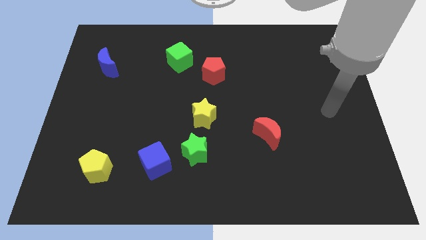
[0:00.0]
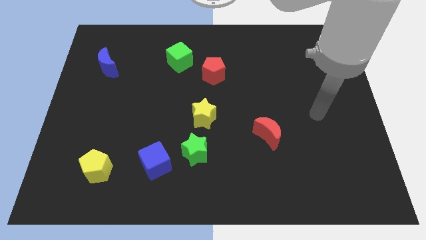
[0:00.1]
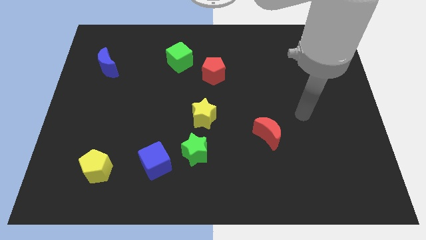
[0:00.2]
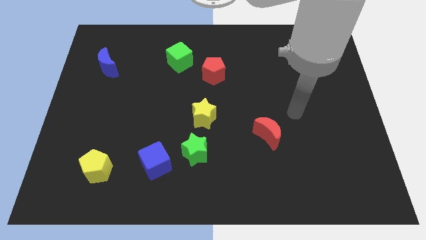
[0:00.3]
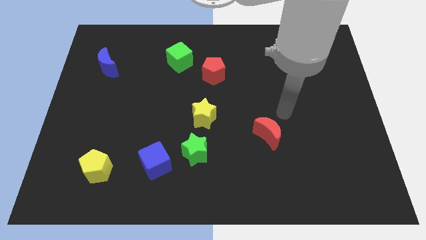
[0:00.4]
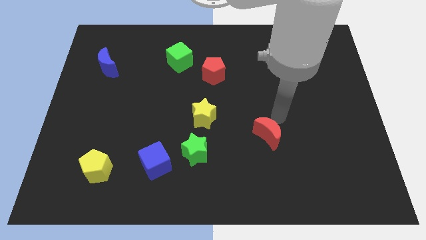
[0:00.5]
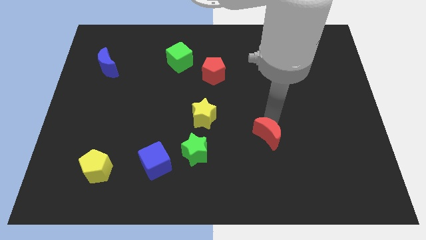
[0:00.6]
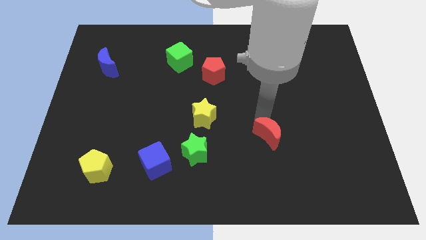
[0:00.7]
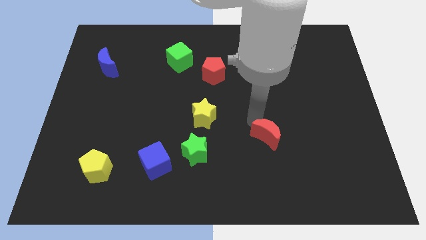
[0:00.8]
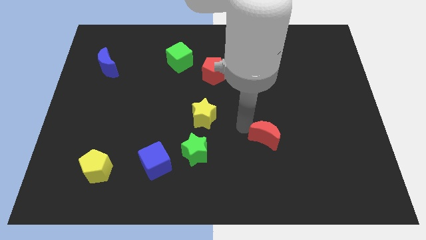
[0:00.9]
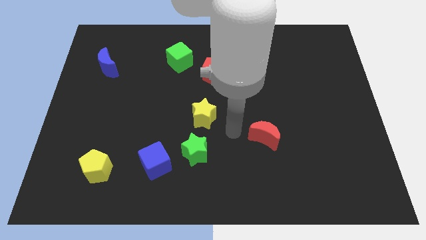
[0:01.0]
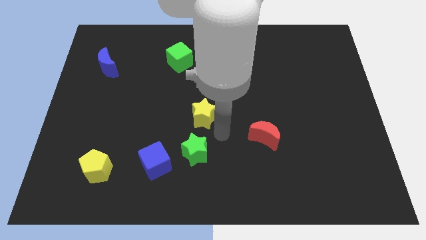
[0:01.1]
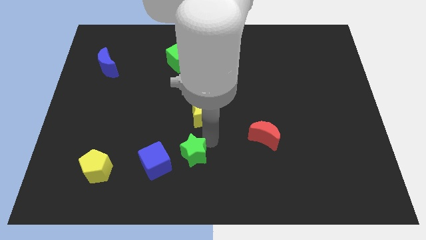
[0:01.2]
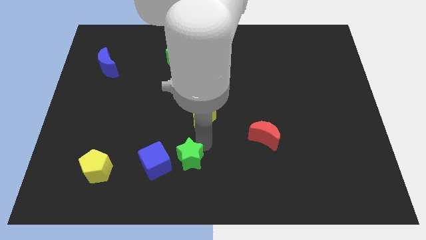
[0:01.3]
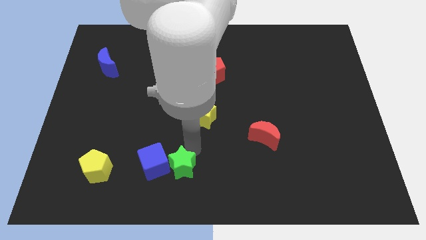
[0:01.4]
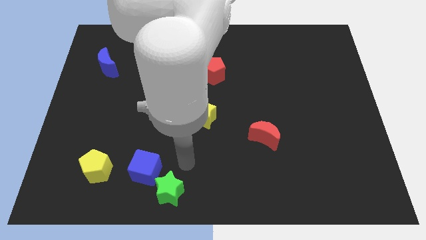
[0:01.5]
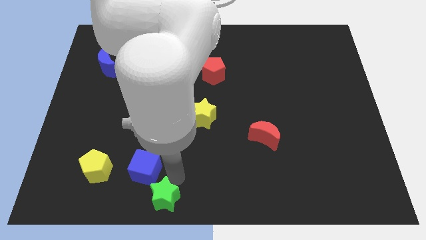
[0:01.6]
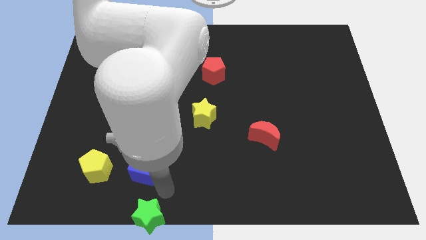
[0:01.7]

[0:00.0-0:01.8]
separate the blue cube from the green star

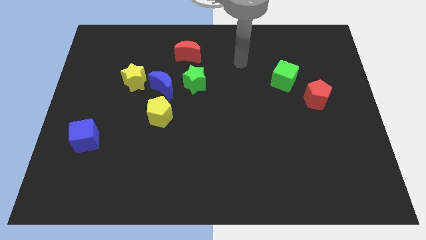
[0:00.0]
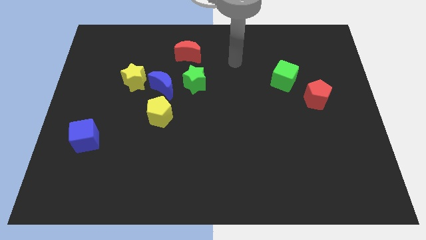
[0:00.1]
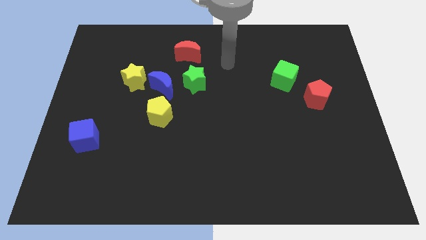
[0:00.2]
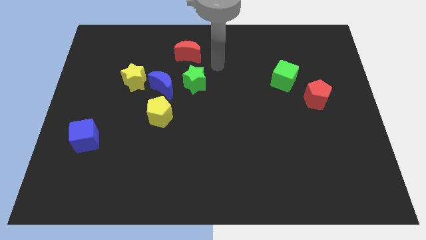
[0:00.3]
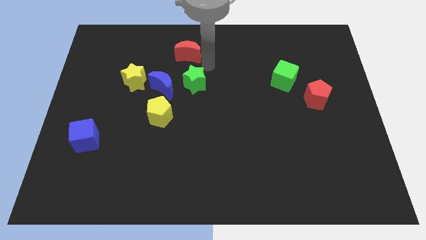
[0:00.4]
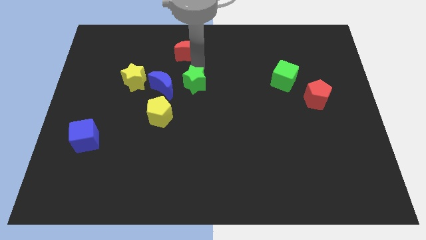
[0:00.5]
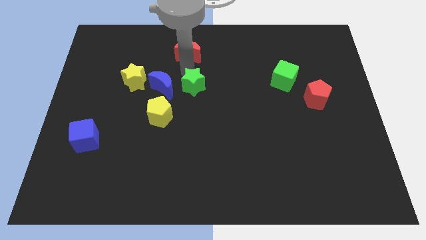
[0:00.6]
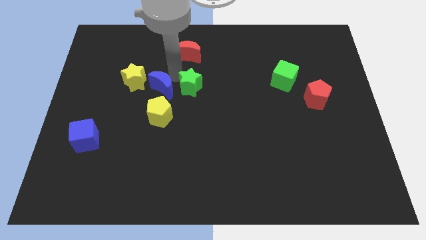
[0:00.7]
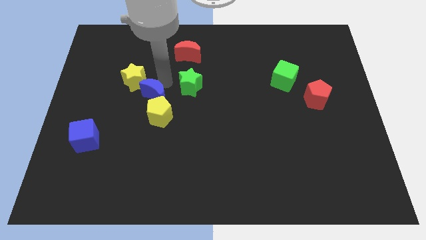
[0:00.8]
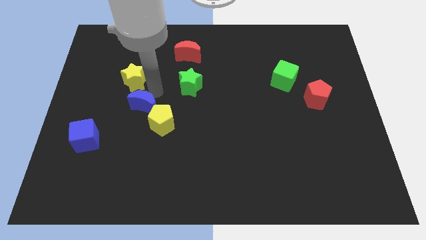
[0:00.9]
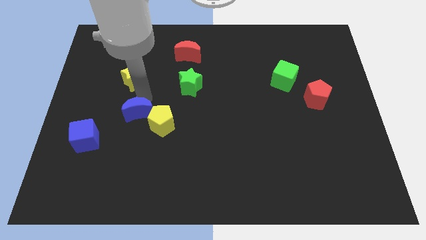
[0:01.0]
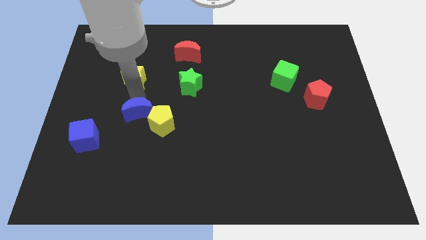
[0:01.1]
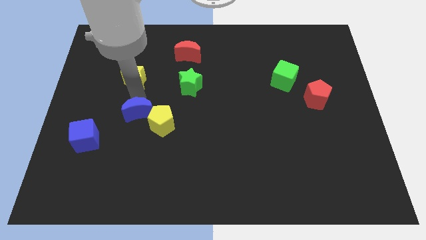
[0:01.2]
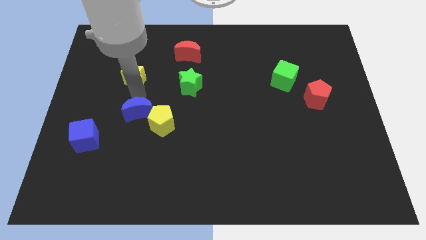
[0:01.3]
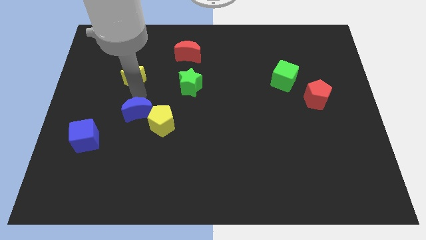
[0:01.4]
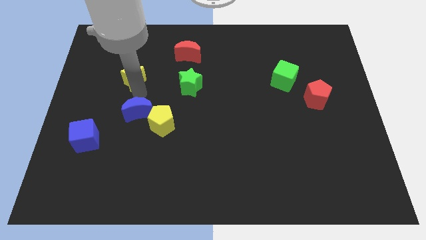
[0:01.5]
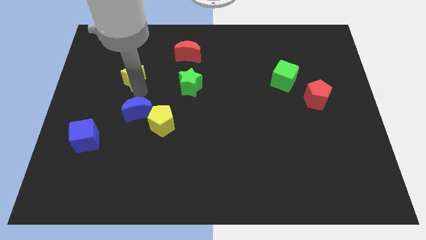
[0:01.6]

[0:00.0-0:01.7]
move the yellow star away from the blue moon

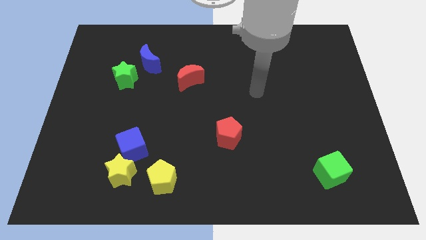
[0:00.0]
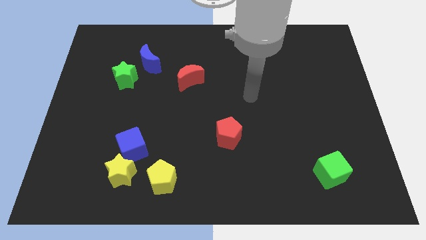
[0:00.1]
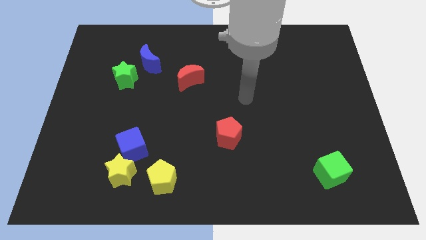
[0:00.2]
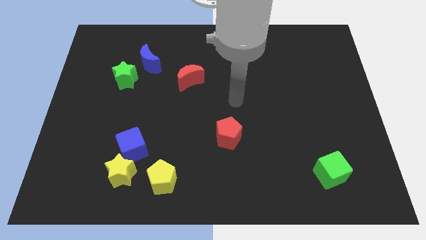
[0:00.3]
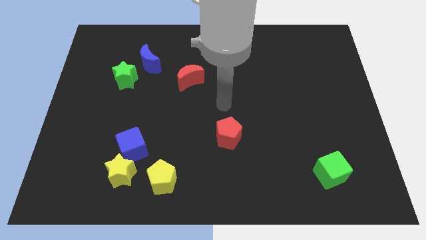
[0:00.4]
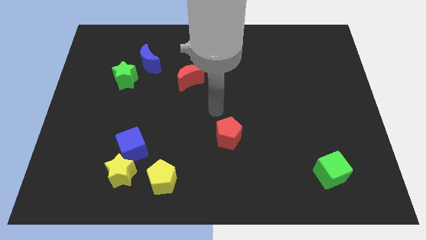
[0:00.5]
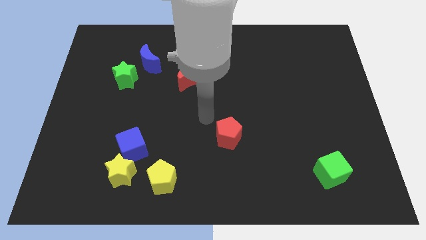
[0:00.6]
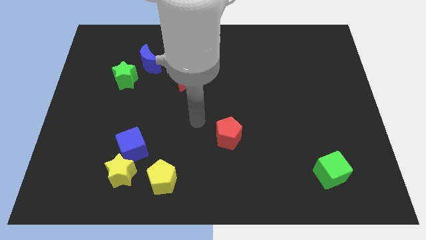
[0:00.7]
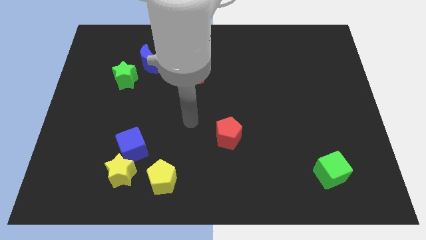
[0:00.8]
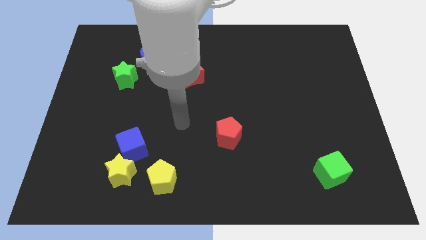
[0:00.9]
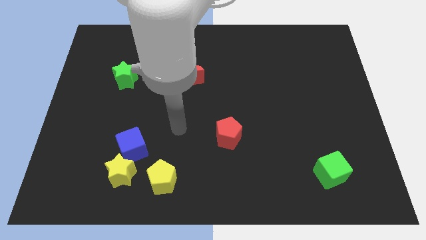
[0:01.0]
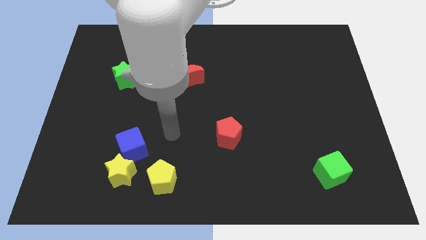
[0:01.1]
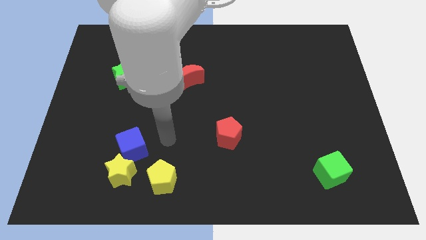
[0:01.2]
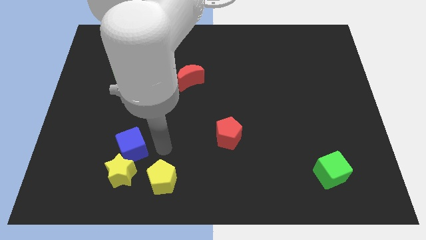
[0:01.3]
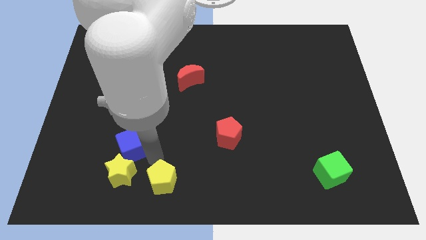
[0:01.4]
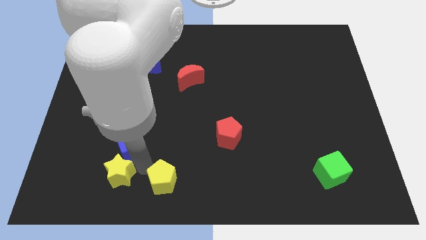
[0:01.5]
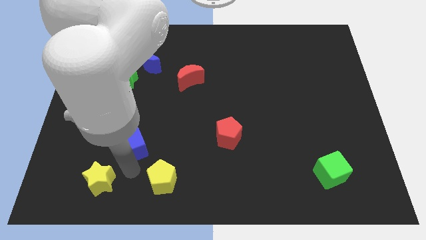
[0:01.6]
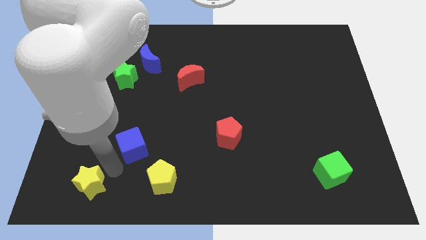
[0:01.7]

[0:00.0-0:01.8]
pull the blue cube apart from the yellow star

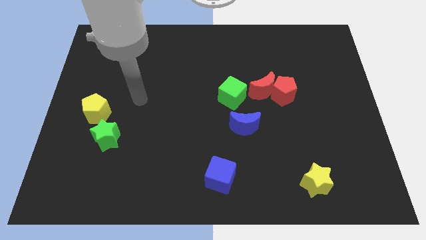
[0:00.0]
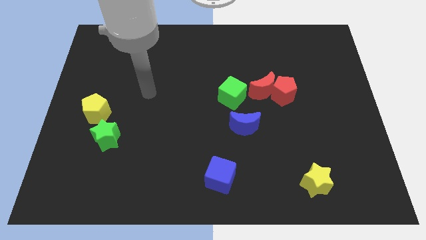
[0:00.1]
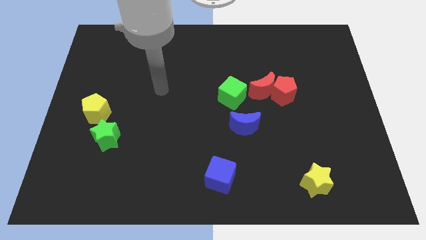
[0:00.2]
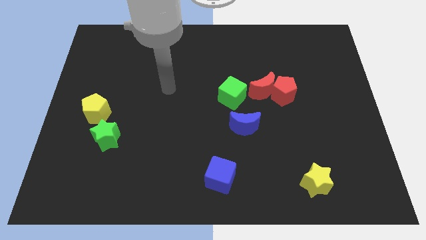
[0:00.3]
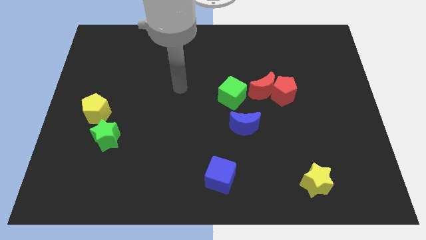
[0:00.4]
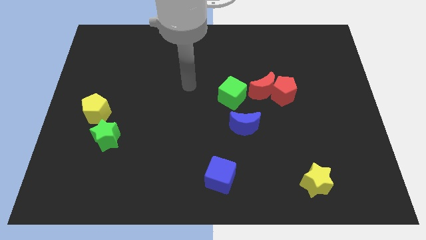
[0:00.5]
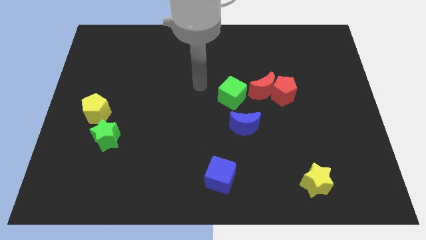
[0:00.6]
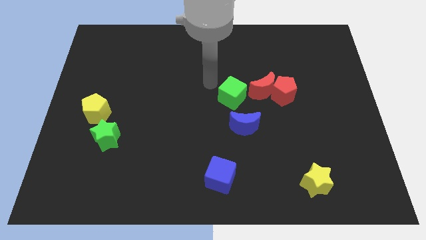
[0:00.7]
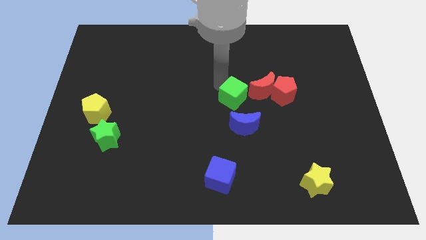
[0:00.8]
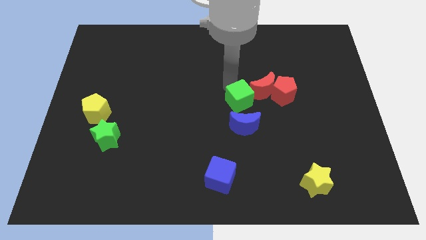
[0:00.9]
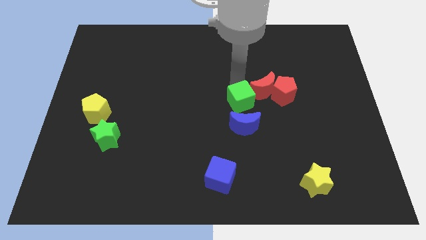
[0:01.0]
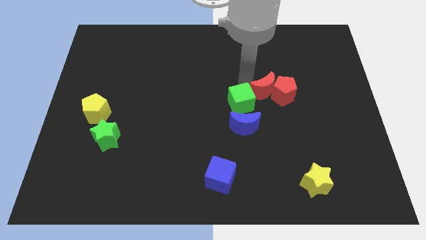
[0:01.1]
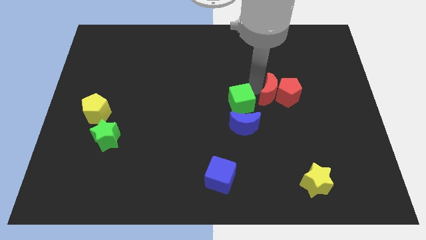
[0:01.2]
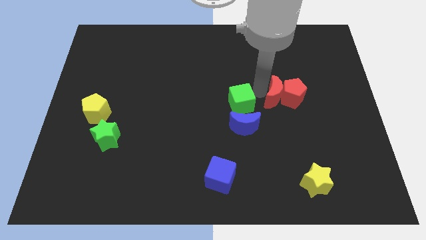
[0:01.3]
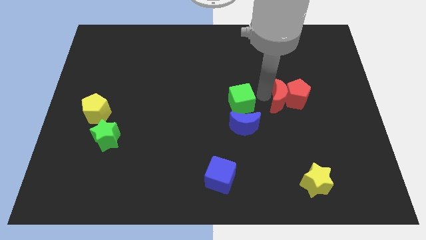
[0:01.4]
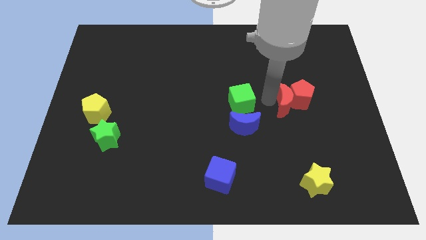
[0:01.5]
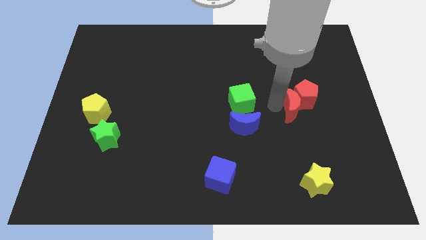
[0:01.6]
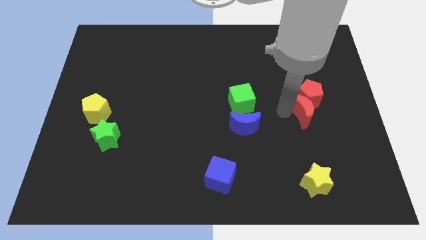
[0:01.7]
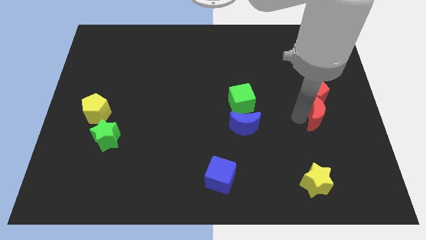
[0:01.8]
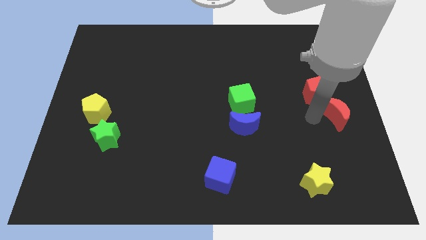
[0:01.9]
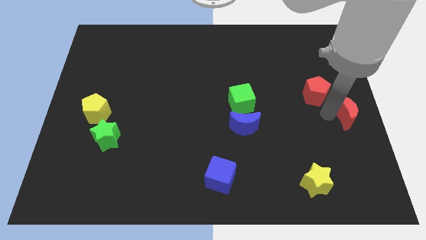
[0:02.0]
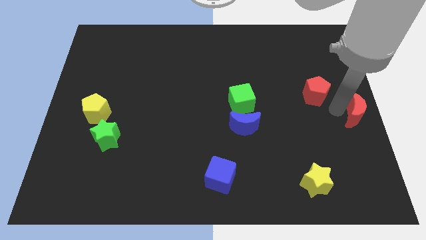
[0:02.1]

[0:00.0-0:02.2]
pull the red pentagon apart from the red moon

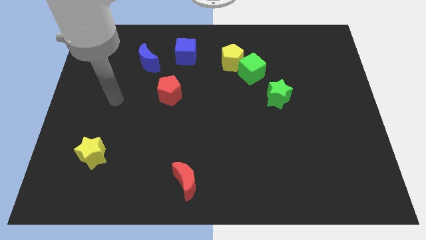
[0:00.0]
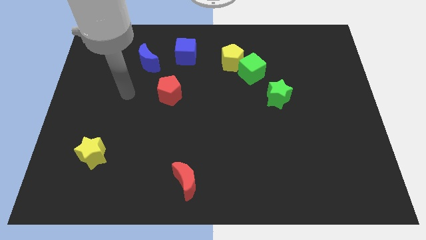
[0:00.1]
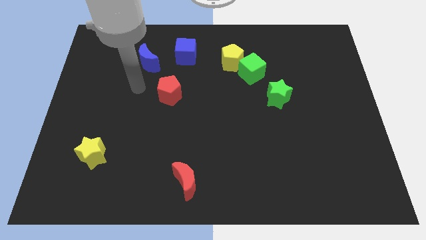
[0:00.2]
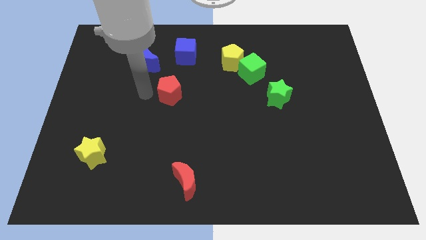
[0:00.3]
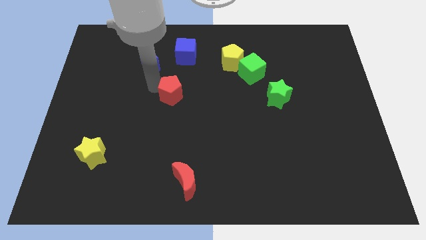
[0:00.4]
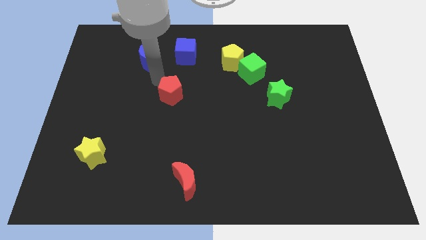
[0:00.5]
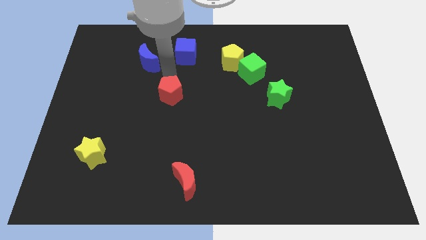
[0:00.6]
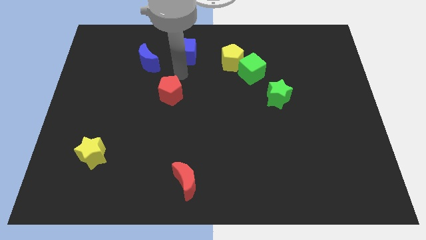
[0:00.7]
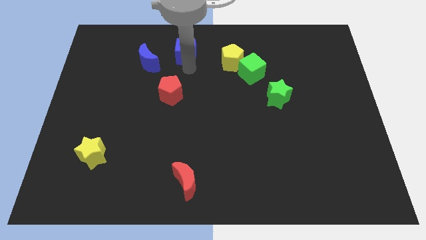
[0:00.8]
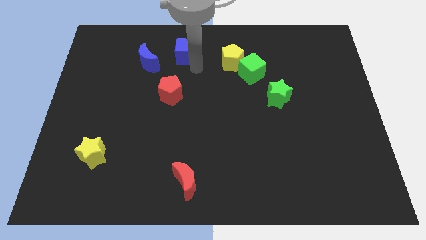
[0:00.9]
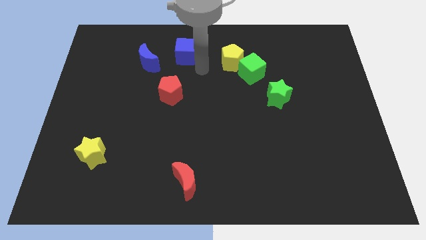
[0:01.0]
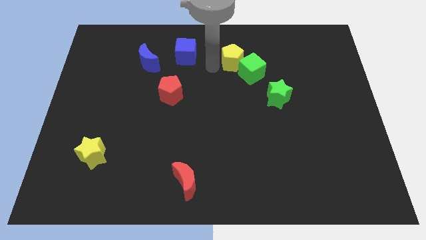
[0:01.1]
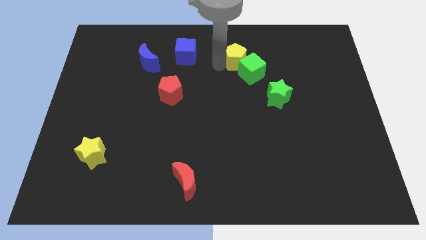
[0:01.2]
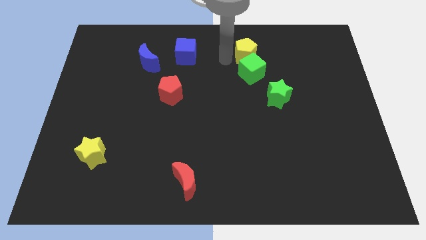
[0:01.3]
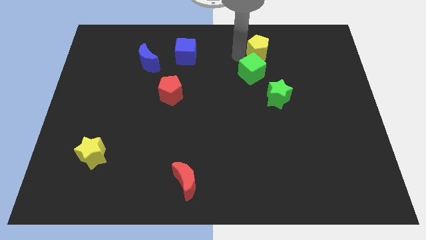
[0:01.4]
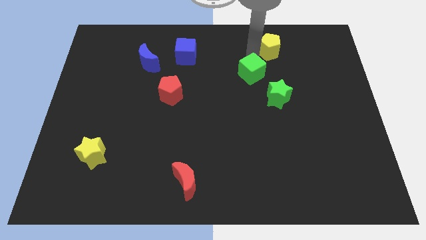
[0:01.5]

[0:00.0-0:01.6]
separate the green cube from the yellow pentagon

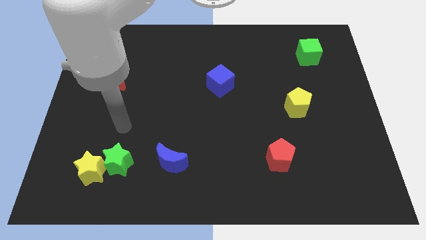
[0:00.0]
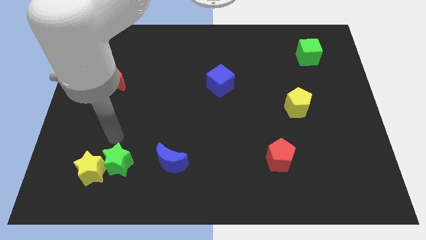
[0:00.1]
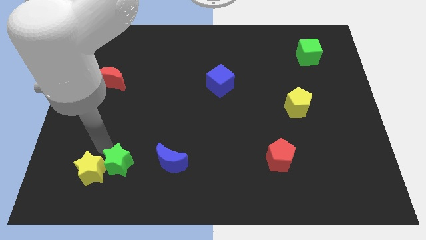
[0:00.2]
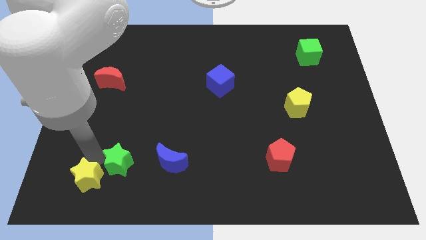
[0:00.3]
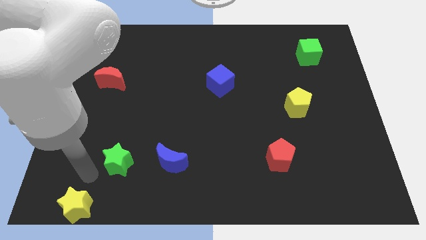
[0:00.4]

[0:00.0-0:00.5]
separate the green star from the yellow star
